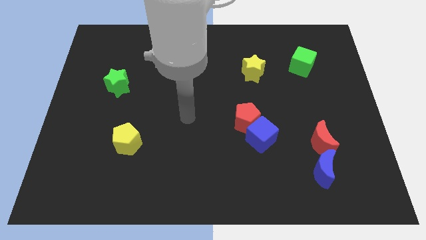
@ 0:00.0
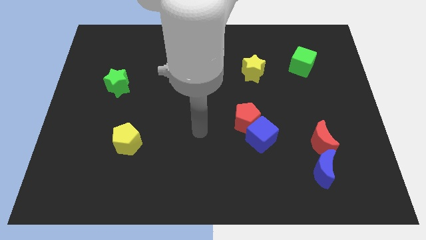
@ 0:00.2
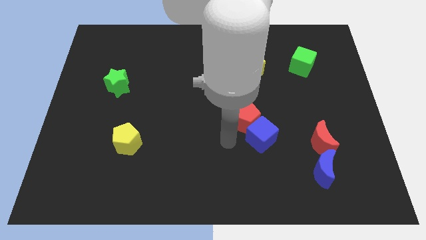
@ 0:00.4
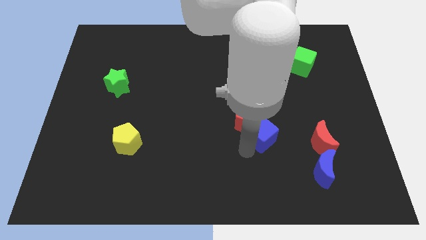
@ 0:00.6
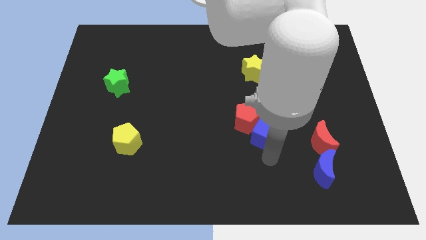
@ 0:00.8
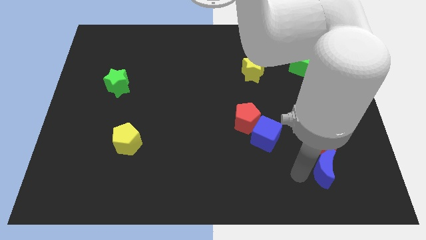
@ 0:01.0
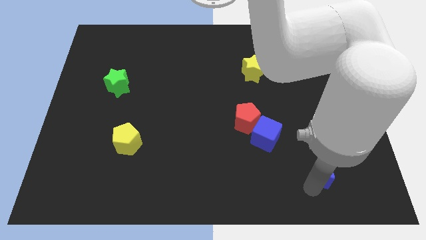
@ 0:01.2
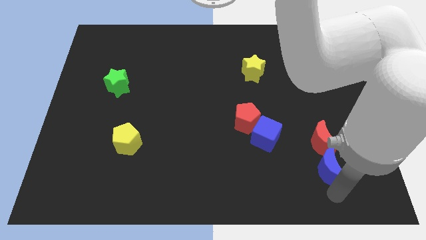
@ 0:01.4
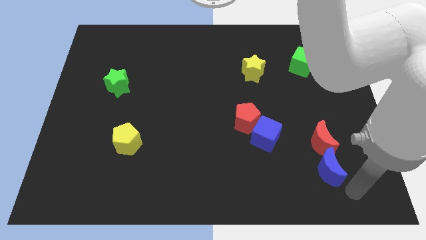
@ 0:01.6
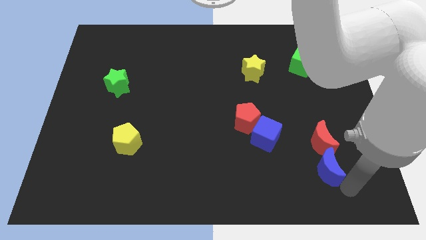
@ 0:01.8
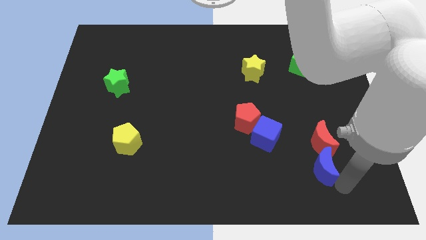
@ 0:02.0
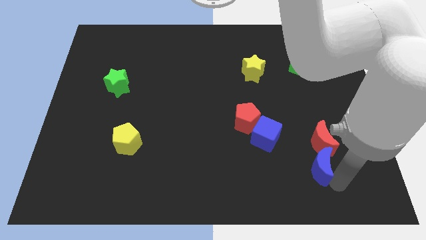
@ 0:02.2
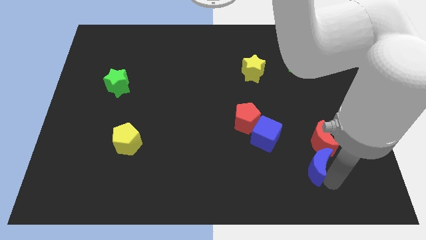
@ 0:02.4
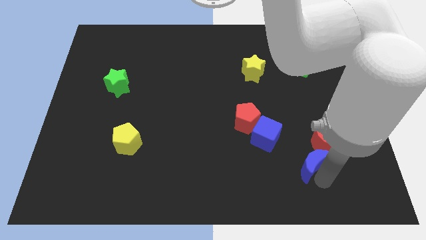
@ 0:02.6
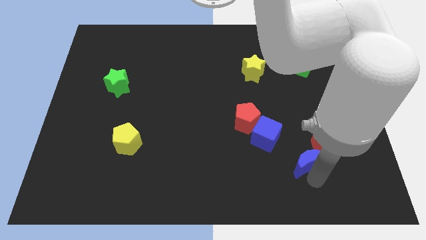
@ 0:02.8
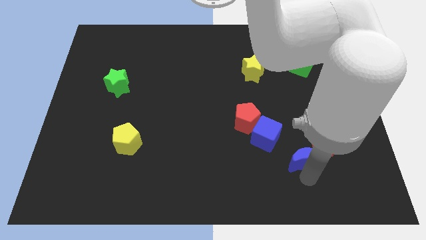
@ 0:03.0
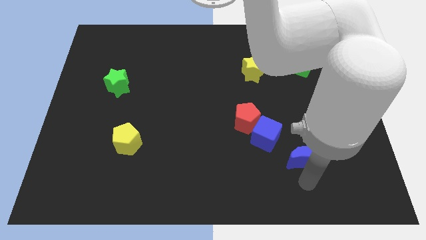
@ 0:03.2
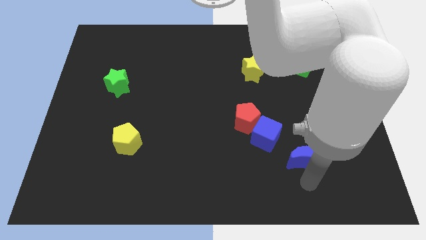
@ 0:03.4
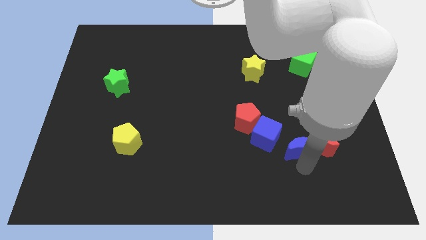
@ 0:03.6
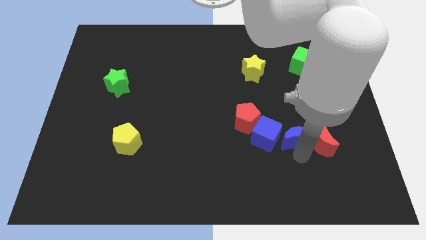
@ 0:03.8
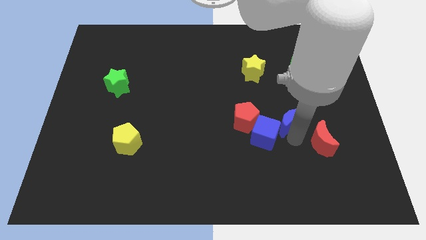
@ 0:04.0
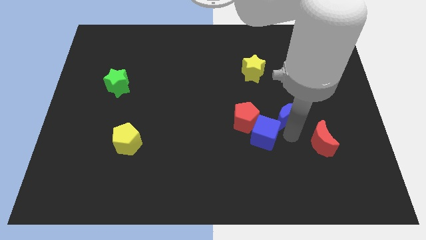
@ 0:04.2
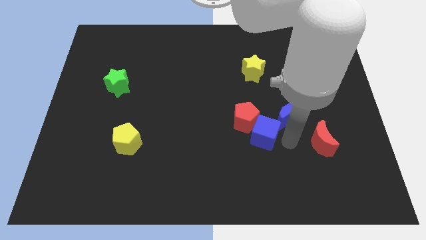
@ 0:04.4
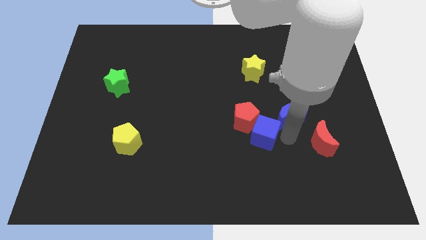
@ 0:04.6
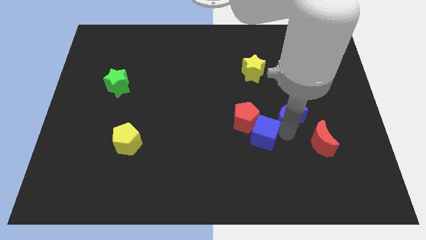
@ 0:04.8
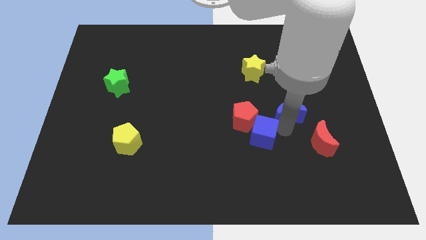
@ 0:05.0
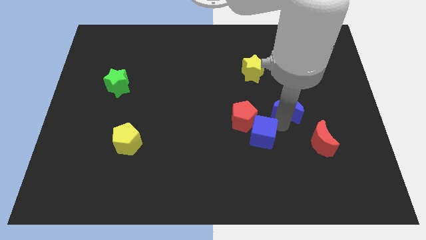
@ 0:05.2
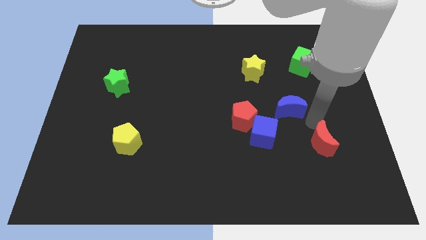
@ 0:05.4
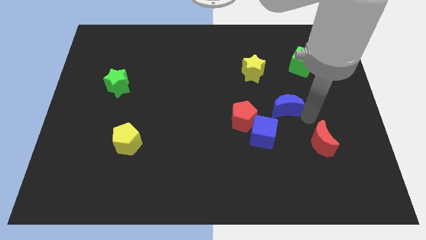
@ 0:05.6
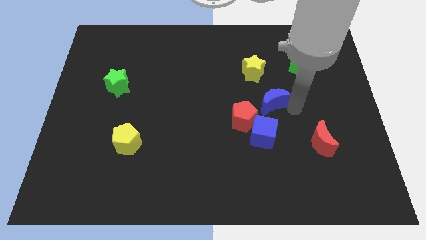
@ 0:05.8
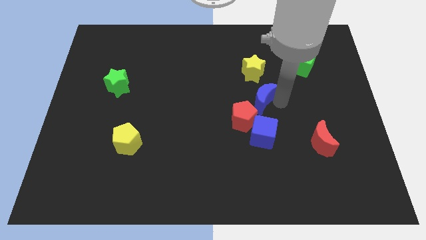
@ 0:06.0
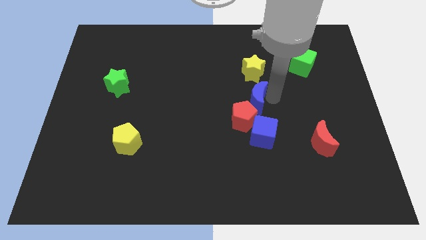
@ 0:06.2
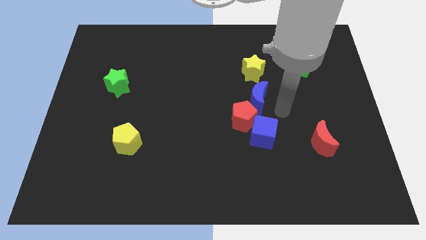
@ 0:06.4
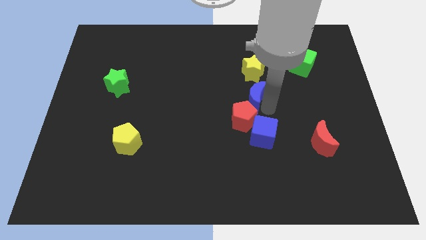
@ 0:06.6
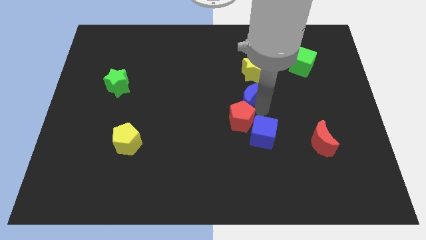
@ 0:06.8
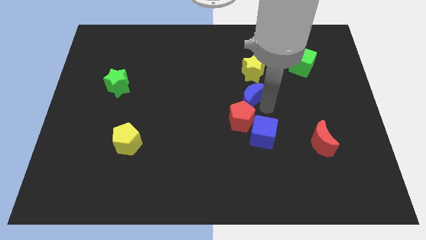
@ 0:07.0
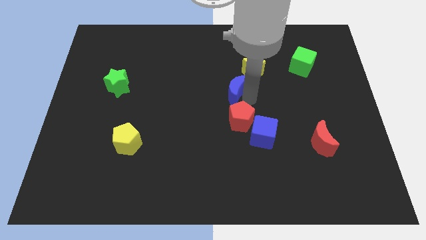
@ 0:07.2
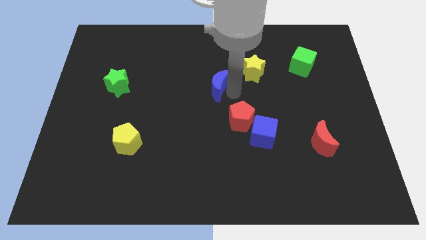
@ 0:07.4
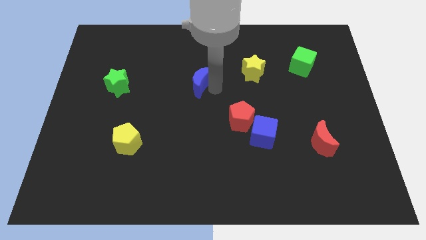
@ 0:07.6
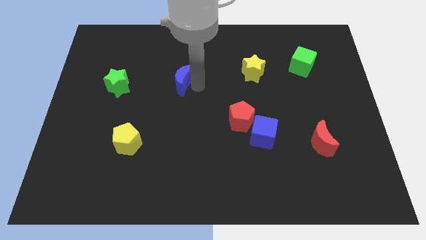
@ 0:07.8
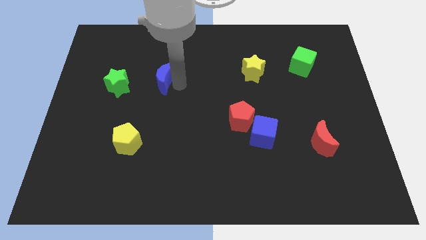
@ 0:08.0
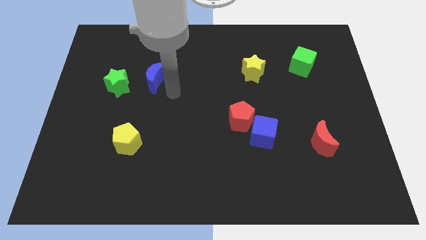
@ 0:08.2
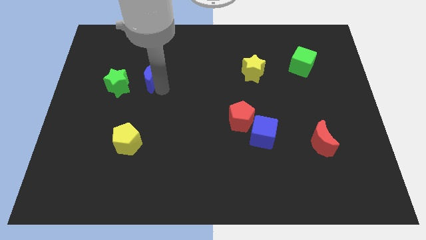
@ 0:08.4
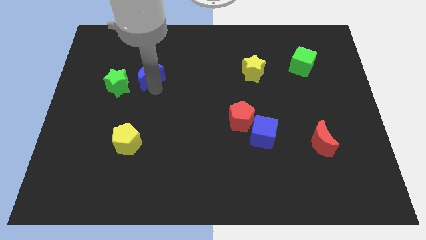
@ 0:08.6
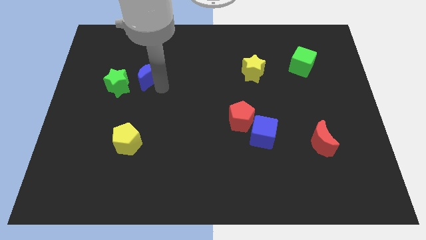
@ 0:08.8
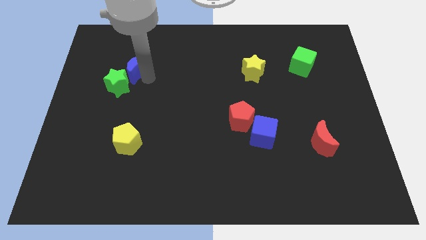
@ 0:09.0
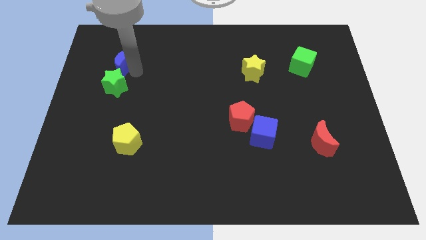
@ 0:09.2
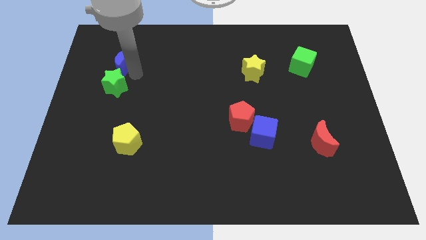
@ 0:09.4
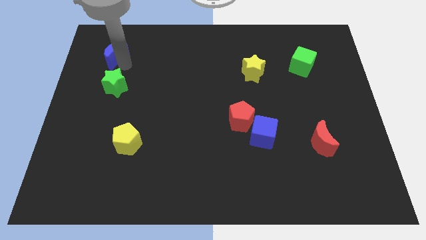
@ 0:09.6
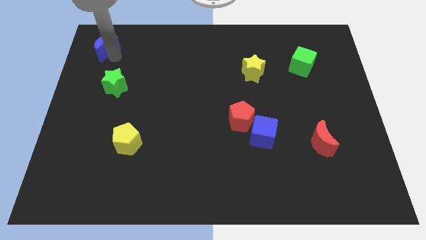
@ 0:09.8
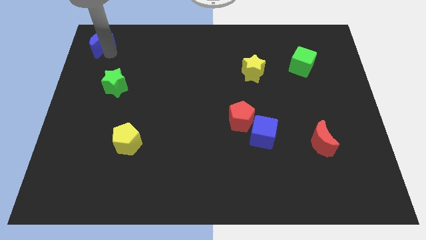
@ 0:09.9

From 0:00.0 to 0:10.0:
slide the blue moon to the top left

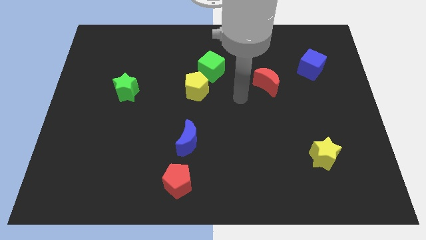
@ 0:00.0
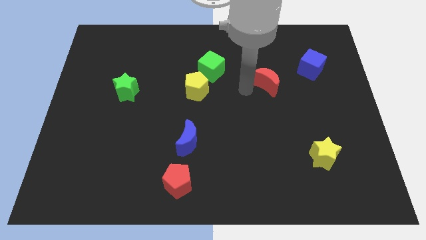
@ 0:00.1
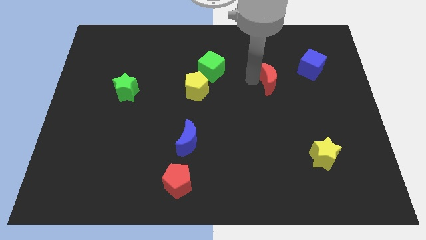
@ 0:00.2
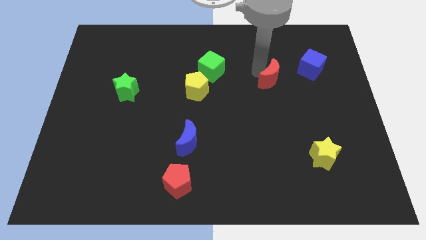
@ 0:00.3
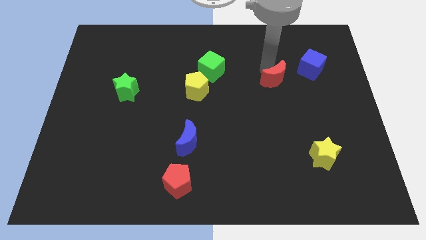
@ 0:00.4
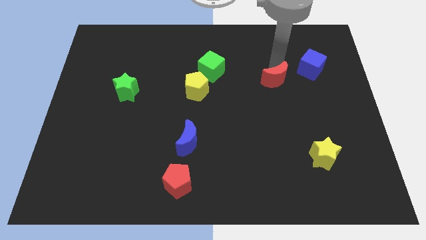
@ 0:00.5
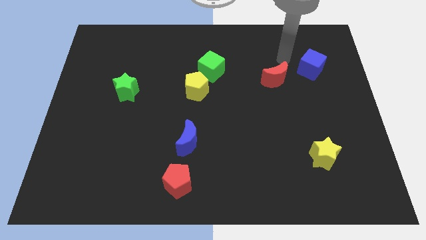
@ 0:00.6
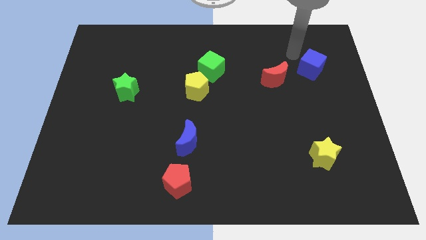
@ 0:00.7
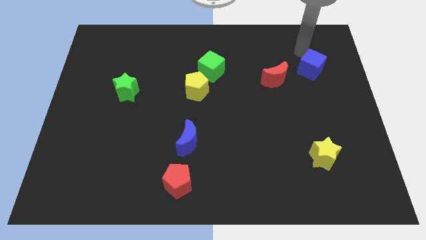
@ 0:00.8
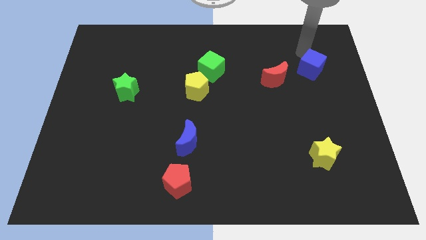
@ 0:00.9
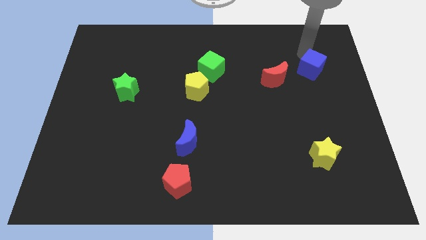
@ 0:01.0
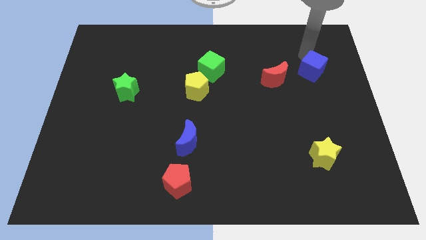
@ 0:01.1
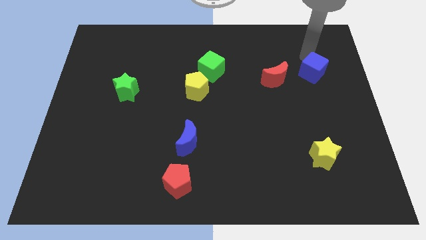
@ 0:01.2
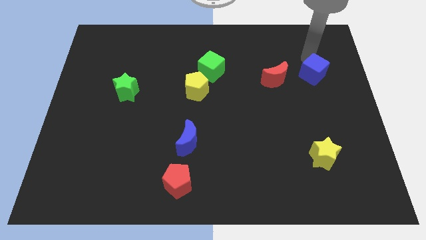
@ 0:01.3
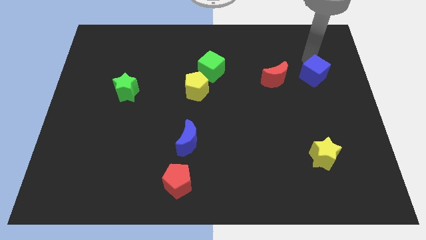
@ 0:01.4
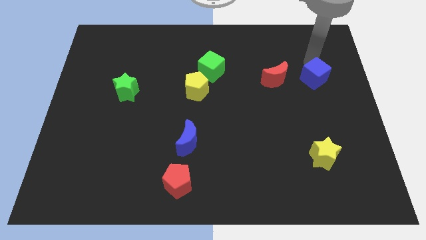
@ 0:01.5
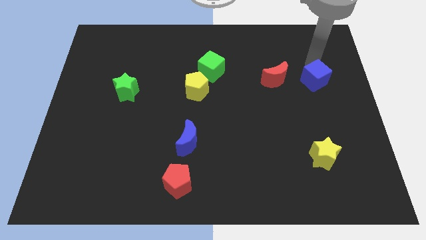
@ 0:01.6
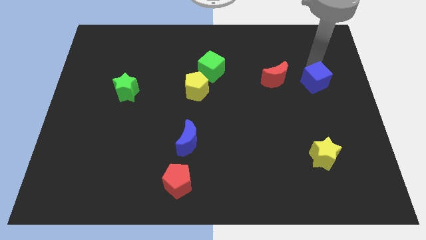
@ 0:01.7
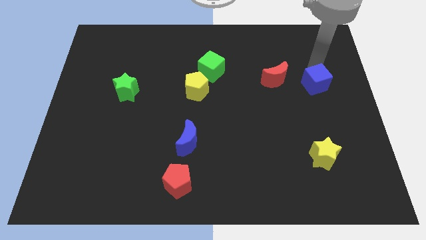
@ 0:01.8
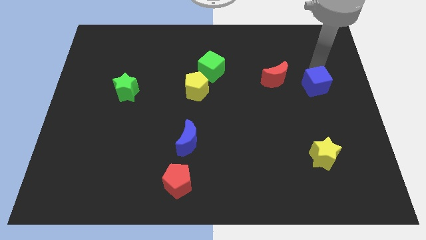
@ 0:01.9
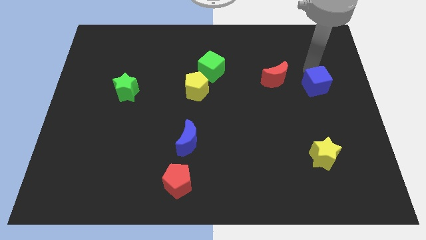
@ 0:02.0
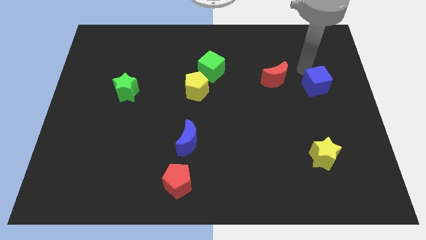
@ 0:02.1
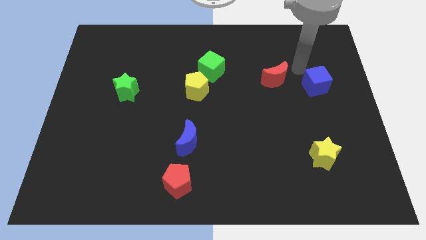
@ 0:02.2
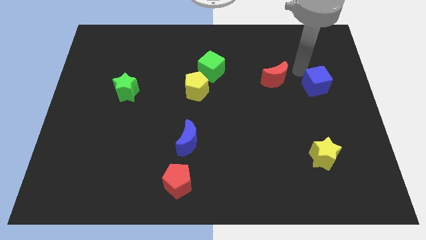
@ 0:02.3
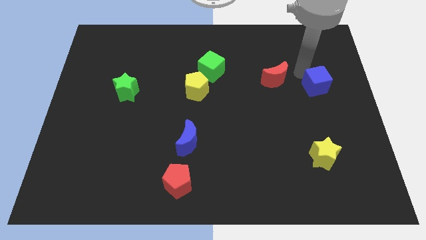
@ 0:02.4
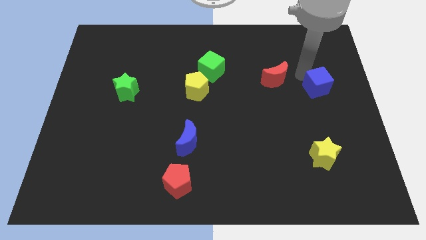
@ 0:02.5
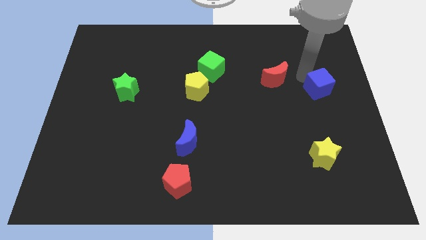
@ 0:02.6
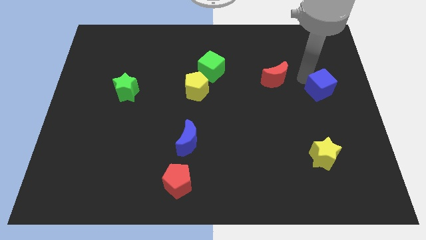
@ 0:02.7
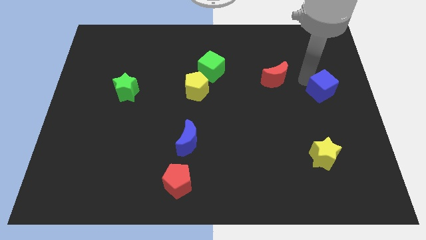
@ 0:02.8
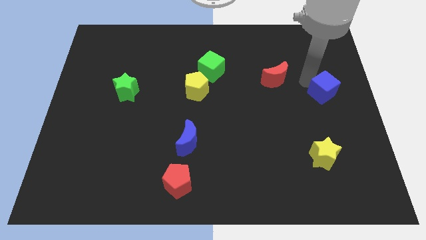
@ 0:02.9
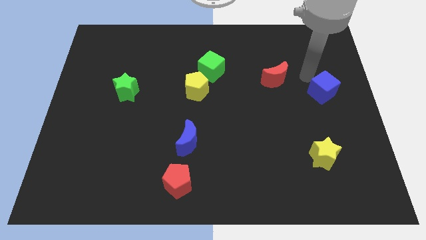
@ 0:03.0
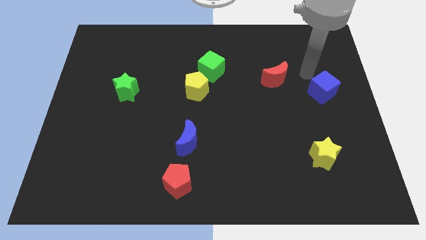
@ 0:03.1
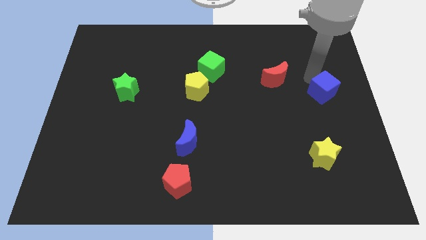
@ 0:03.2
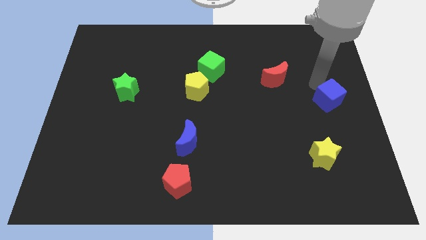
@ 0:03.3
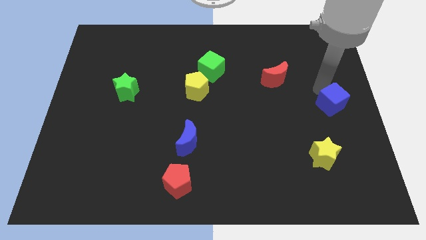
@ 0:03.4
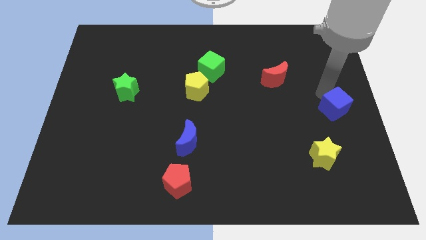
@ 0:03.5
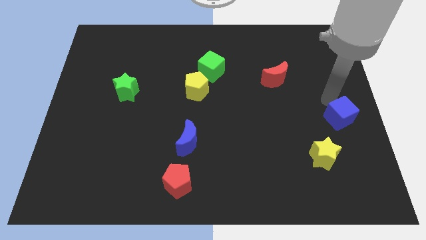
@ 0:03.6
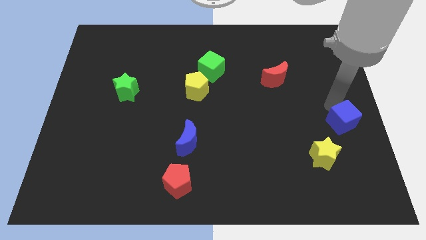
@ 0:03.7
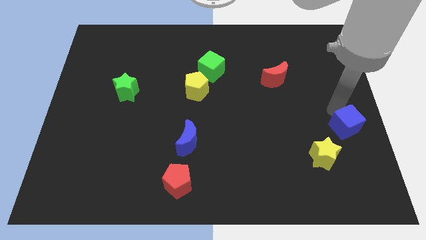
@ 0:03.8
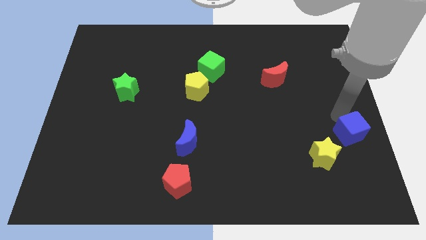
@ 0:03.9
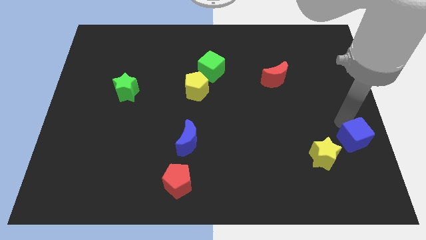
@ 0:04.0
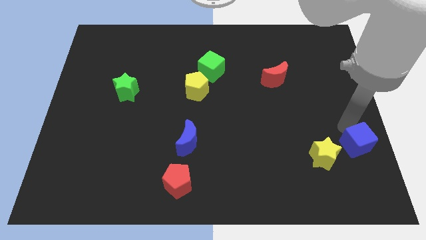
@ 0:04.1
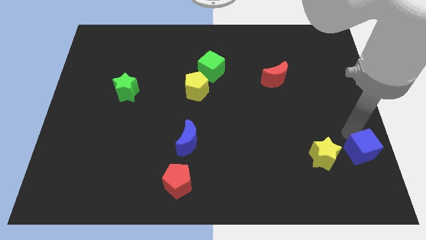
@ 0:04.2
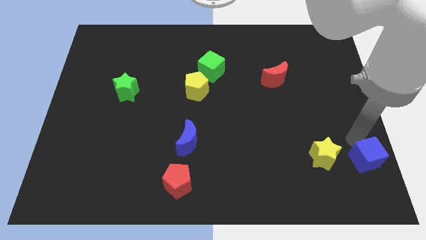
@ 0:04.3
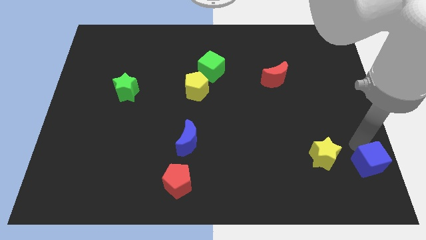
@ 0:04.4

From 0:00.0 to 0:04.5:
move the blue cube to the bottom right
